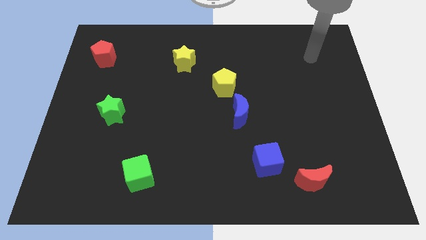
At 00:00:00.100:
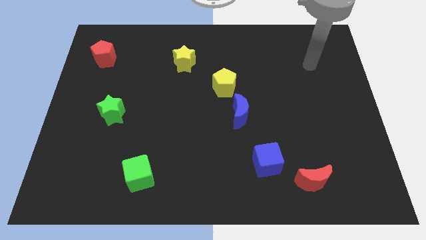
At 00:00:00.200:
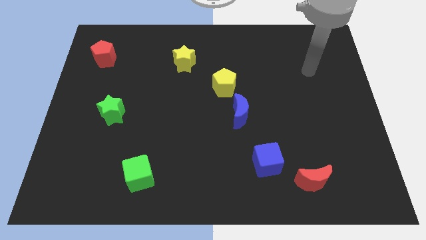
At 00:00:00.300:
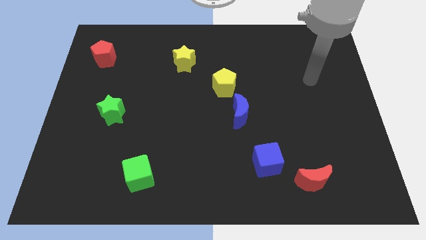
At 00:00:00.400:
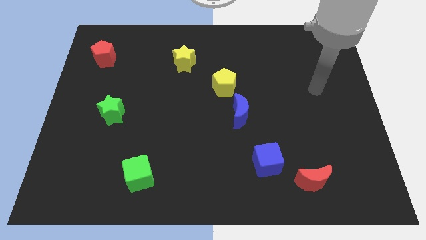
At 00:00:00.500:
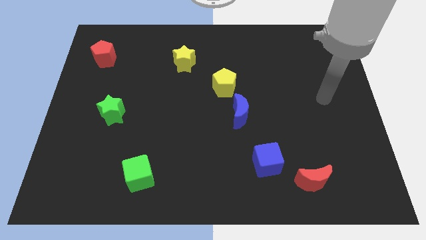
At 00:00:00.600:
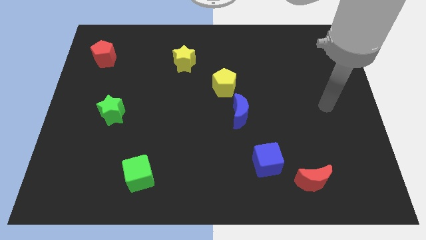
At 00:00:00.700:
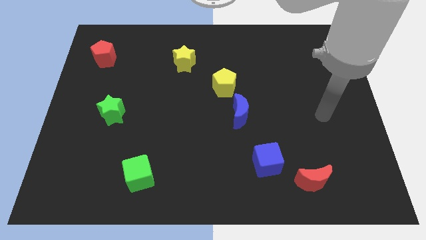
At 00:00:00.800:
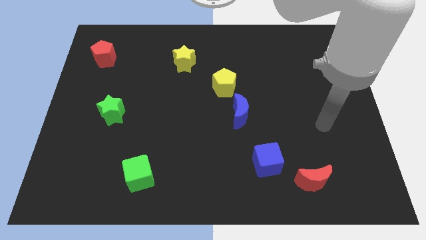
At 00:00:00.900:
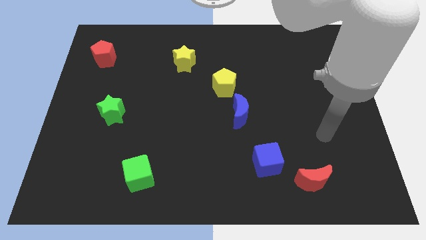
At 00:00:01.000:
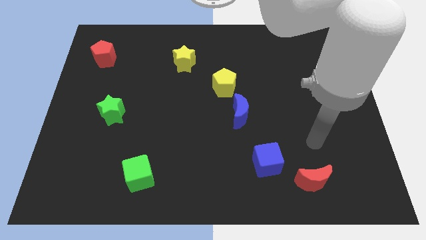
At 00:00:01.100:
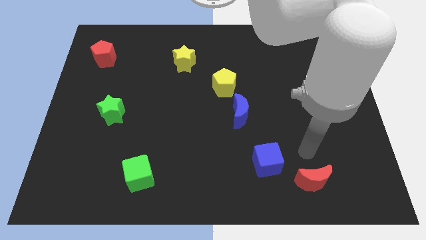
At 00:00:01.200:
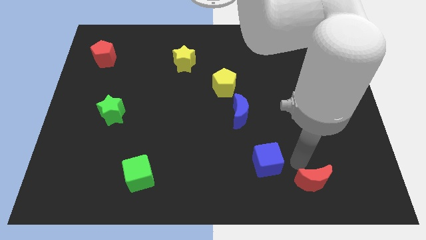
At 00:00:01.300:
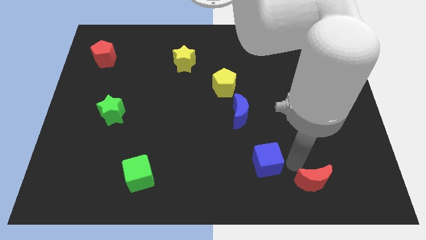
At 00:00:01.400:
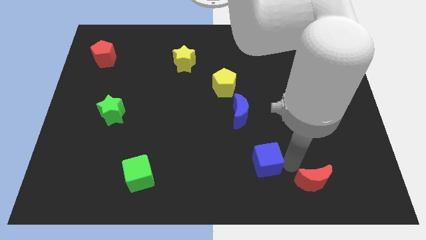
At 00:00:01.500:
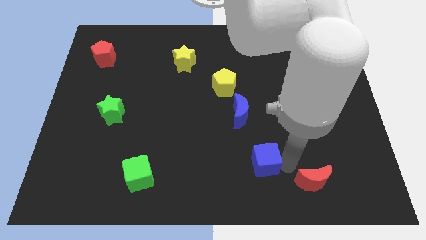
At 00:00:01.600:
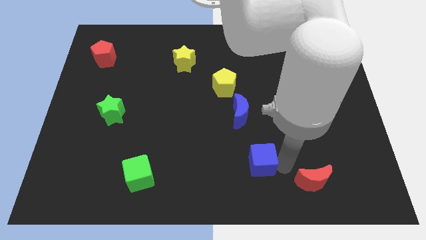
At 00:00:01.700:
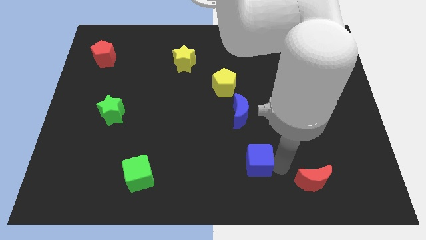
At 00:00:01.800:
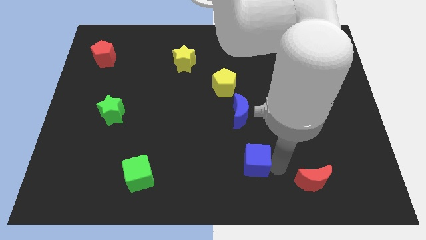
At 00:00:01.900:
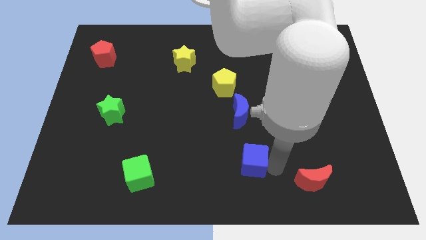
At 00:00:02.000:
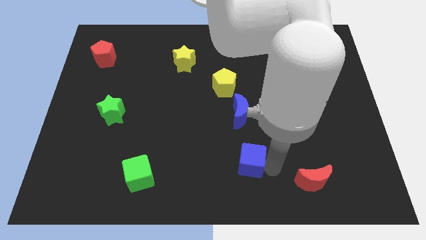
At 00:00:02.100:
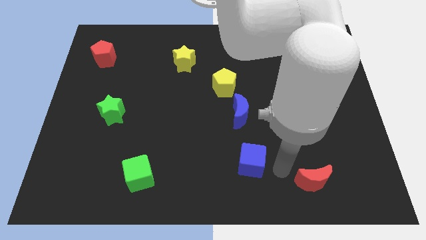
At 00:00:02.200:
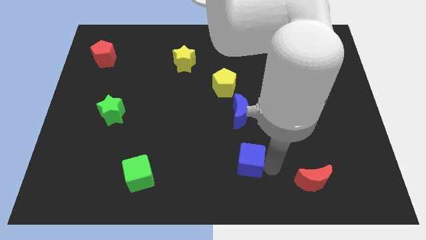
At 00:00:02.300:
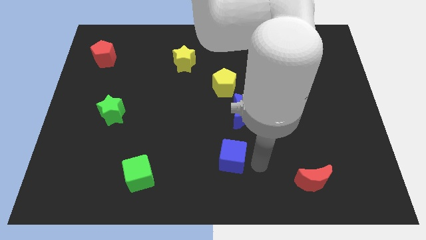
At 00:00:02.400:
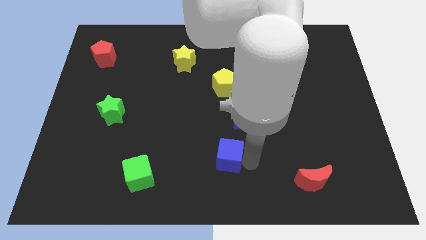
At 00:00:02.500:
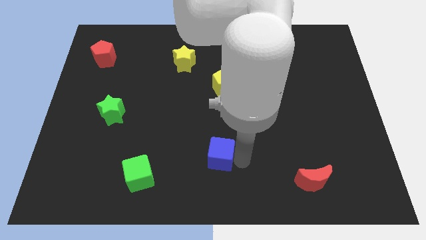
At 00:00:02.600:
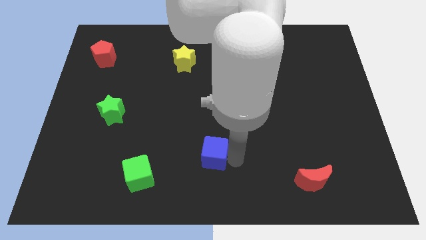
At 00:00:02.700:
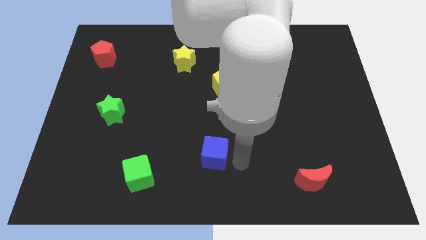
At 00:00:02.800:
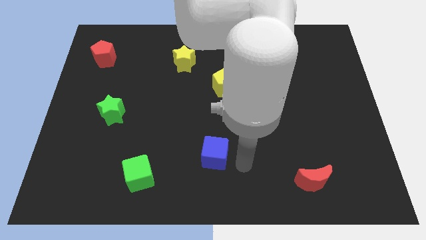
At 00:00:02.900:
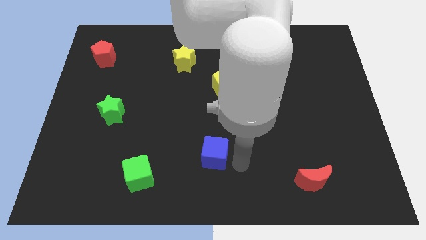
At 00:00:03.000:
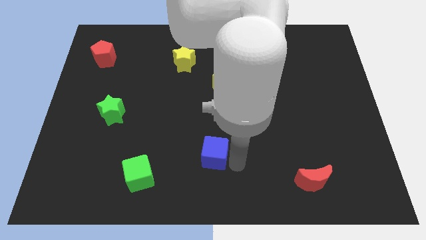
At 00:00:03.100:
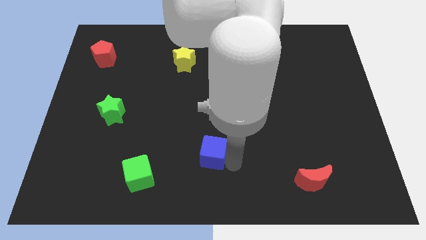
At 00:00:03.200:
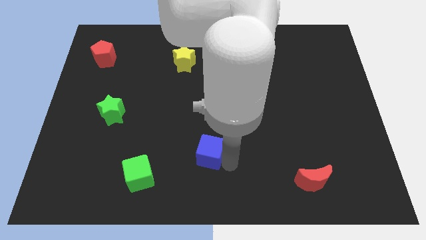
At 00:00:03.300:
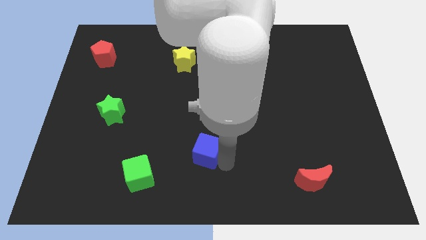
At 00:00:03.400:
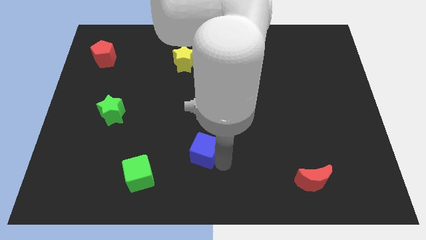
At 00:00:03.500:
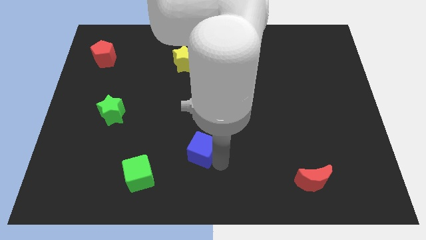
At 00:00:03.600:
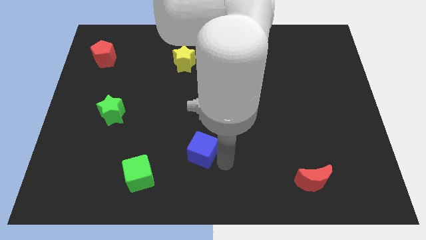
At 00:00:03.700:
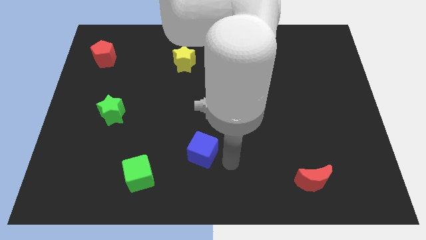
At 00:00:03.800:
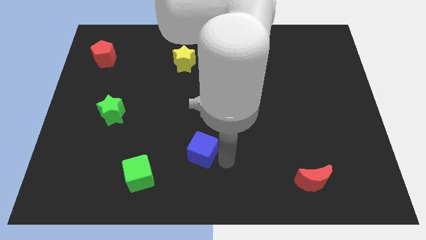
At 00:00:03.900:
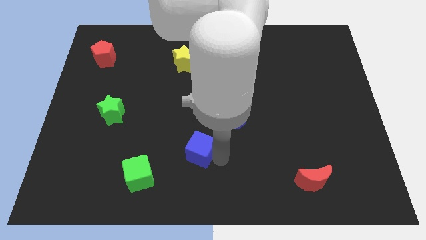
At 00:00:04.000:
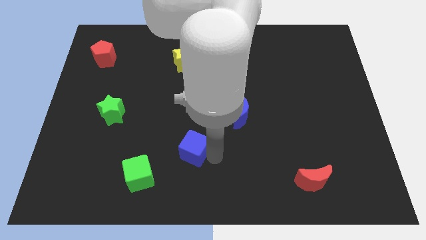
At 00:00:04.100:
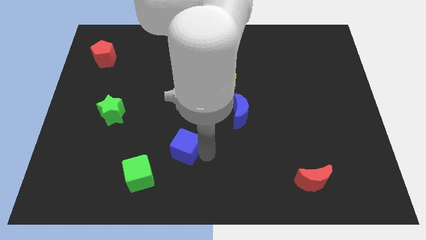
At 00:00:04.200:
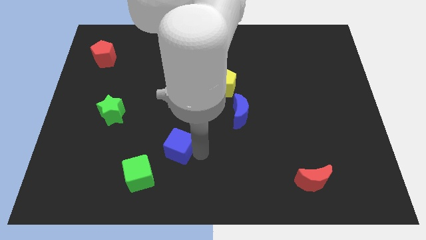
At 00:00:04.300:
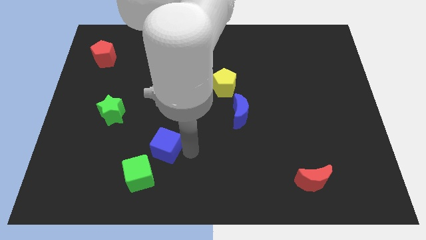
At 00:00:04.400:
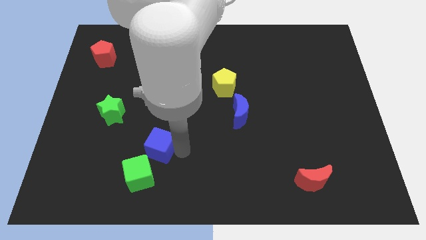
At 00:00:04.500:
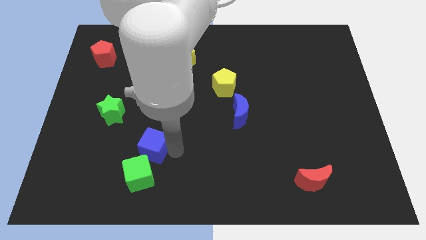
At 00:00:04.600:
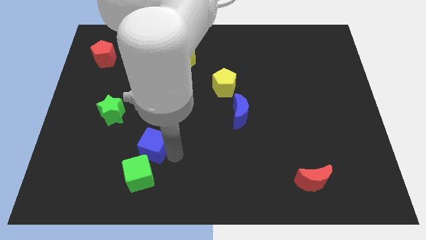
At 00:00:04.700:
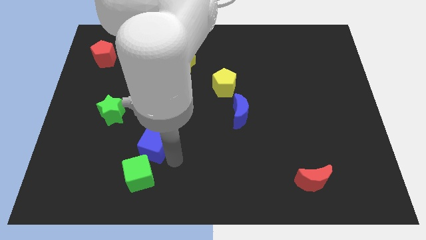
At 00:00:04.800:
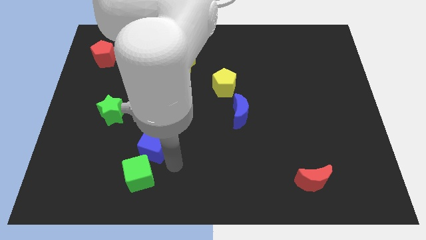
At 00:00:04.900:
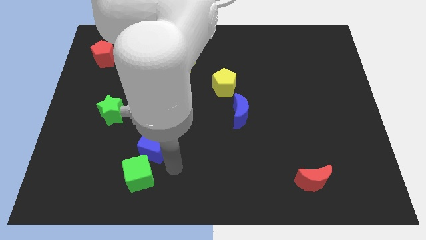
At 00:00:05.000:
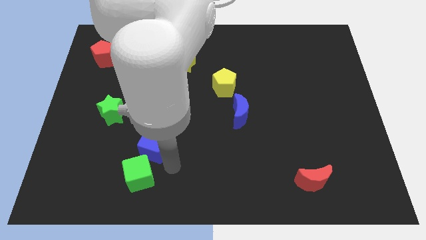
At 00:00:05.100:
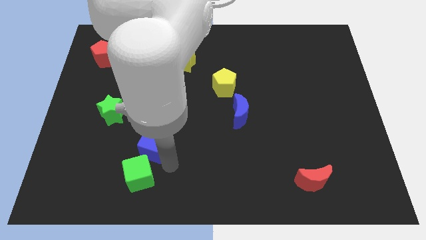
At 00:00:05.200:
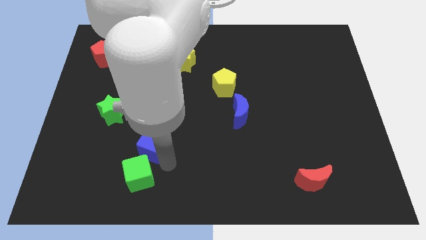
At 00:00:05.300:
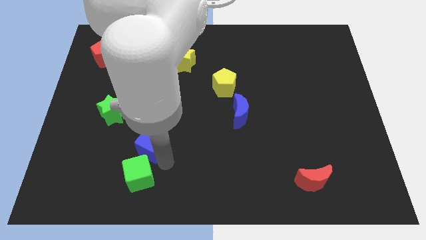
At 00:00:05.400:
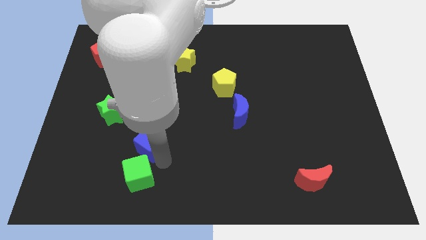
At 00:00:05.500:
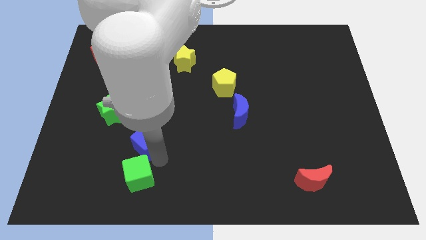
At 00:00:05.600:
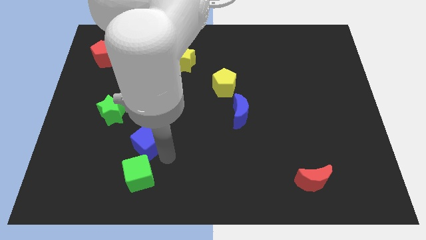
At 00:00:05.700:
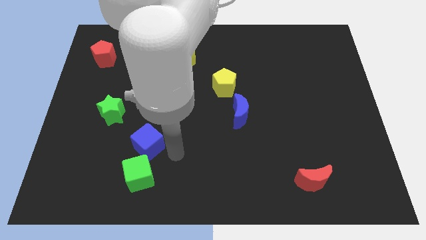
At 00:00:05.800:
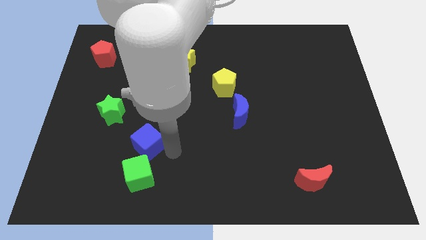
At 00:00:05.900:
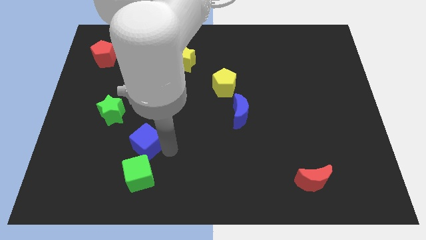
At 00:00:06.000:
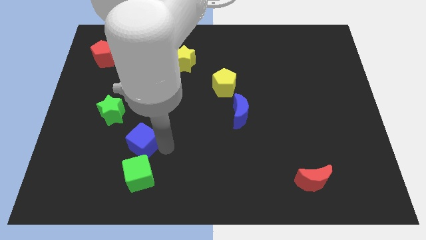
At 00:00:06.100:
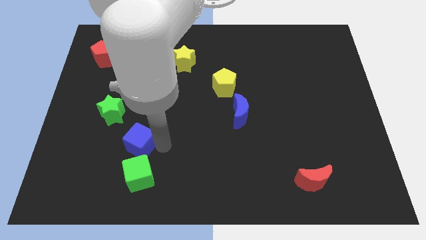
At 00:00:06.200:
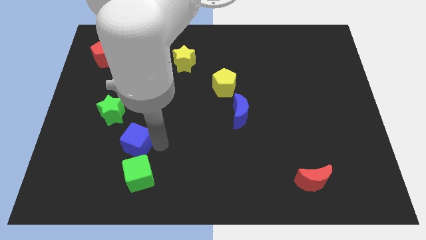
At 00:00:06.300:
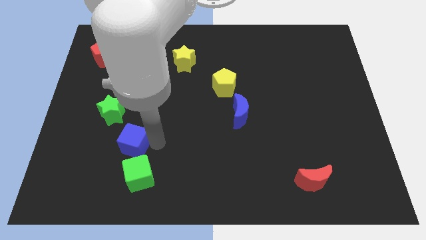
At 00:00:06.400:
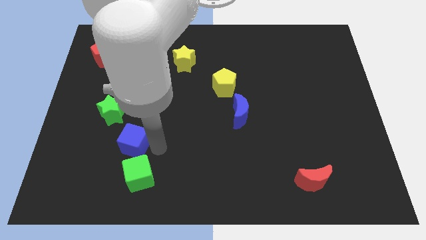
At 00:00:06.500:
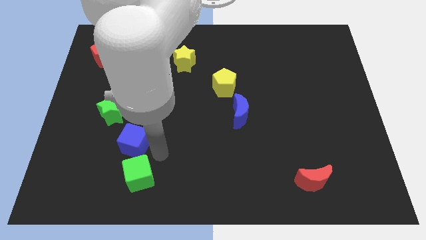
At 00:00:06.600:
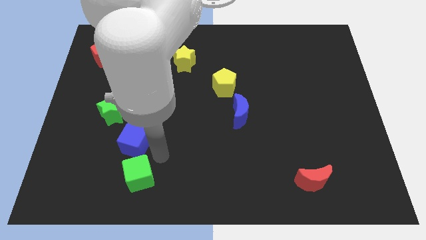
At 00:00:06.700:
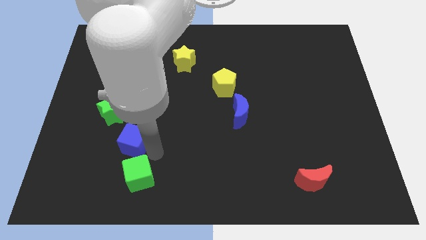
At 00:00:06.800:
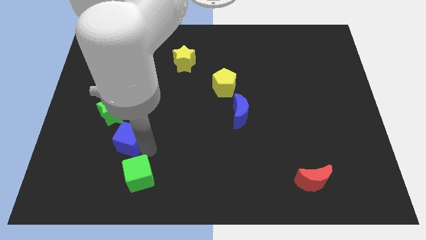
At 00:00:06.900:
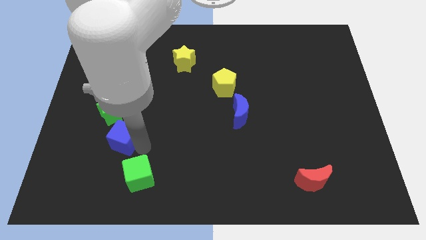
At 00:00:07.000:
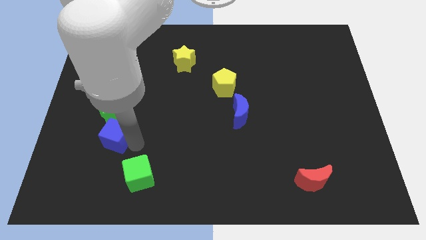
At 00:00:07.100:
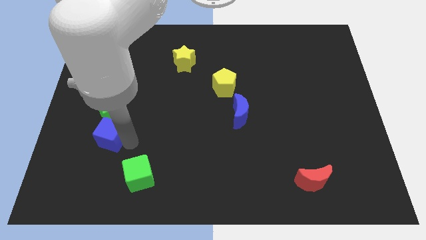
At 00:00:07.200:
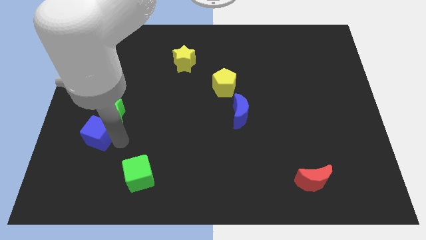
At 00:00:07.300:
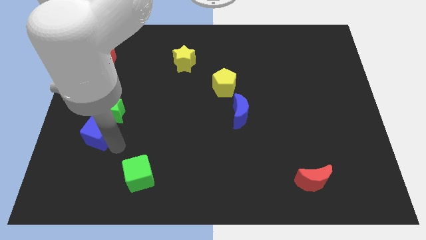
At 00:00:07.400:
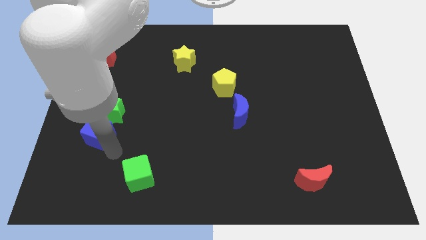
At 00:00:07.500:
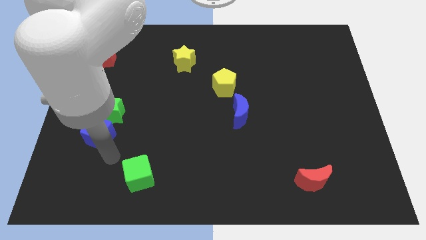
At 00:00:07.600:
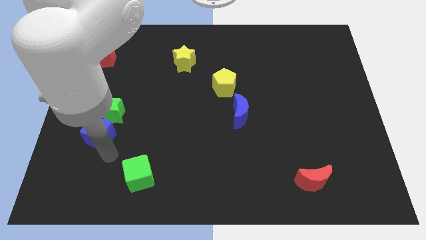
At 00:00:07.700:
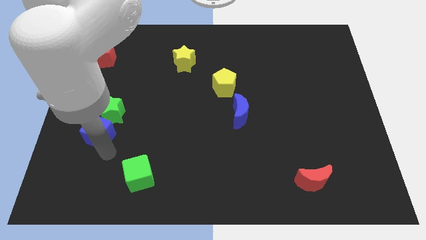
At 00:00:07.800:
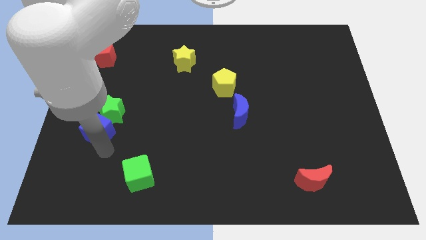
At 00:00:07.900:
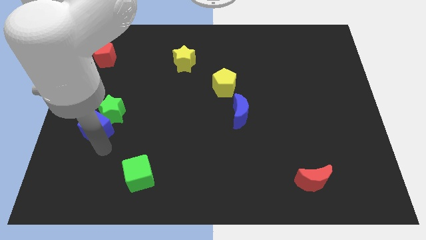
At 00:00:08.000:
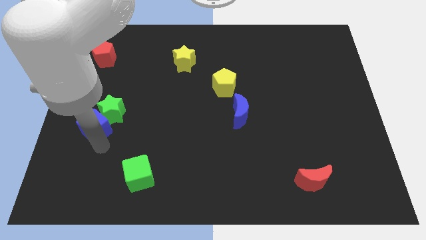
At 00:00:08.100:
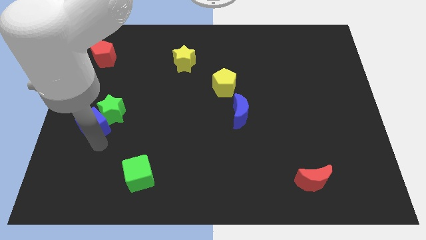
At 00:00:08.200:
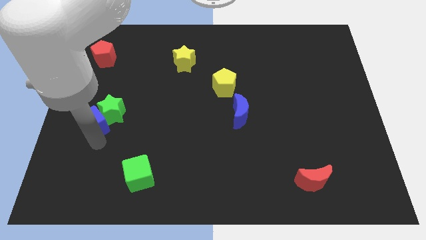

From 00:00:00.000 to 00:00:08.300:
push the blue cube to the left side
